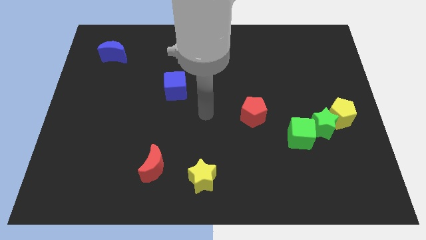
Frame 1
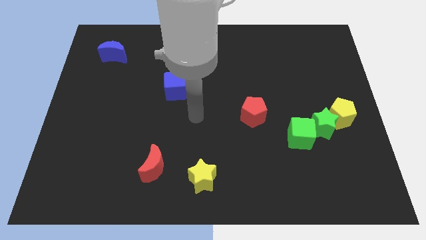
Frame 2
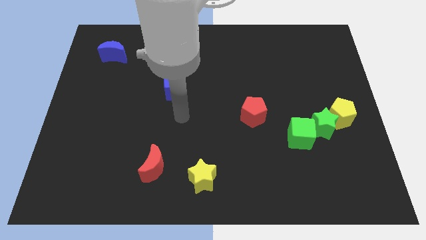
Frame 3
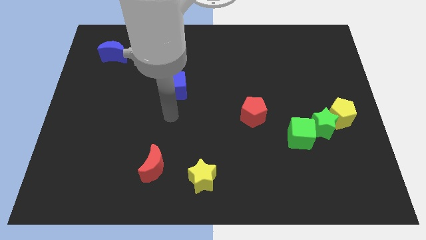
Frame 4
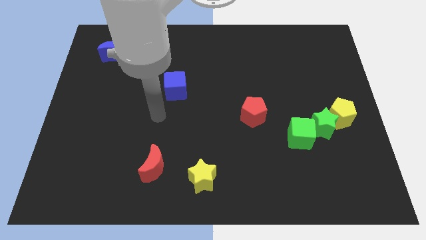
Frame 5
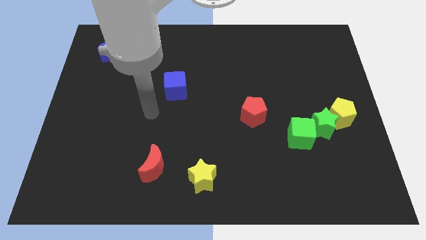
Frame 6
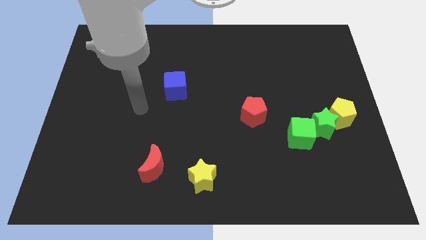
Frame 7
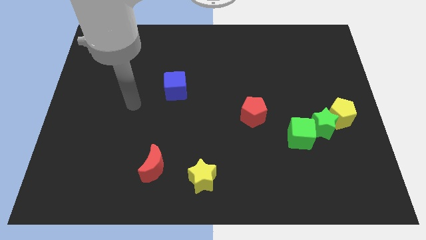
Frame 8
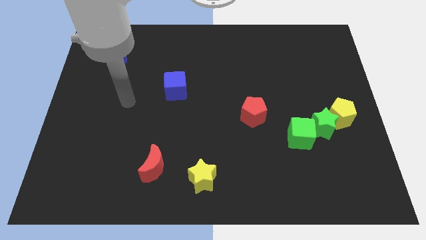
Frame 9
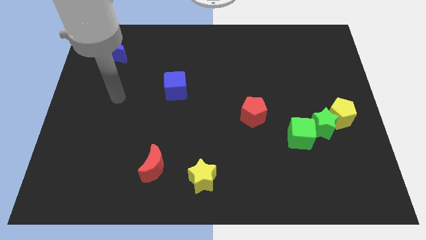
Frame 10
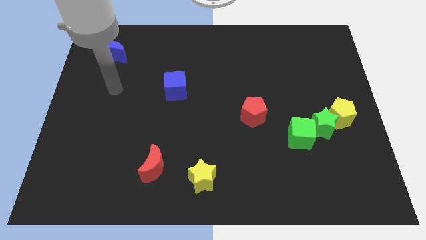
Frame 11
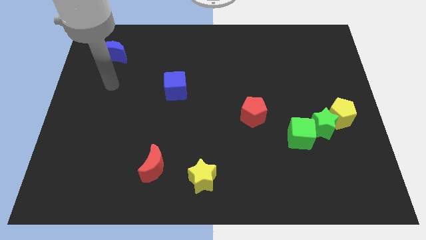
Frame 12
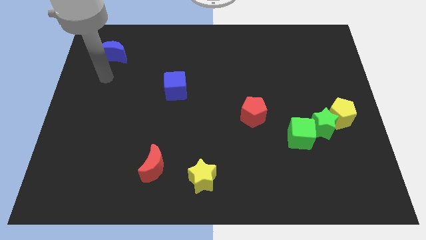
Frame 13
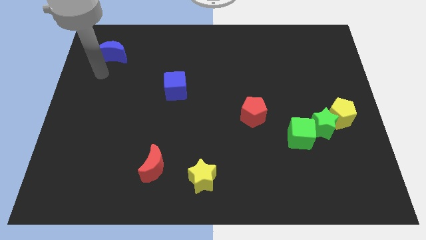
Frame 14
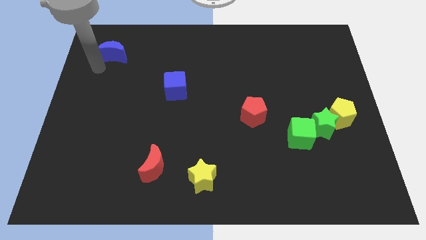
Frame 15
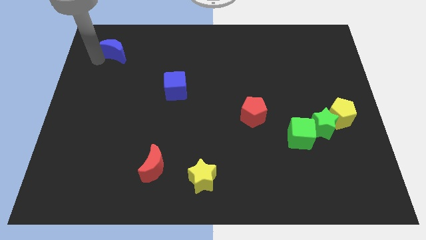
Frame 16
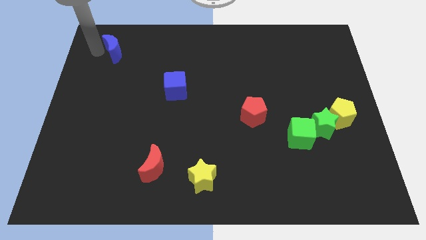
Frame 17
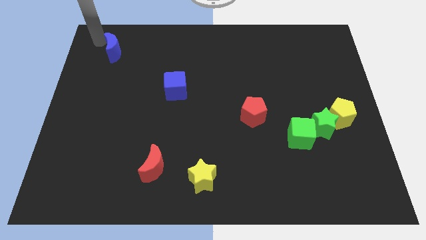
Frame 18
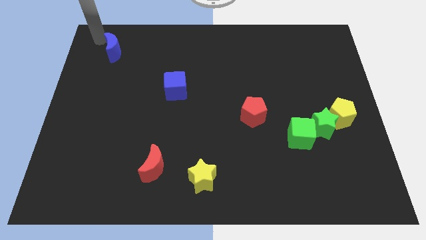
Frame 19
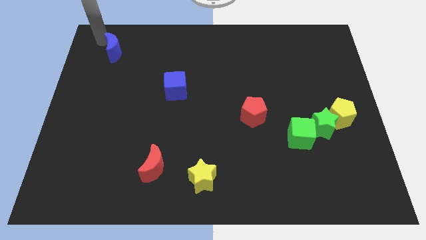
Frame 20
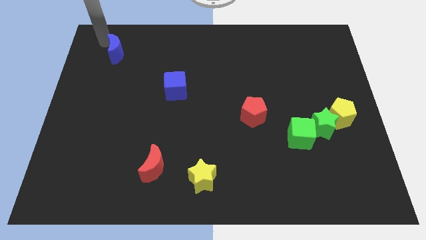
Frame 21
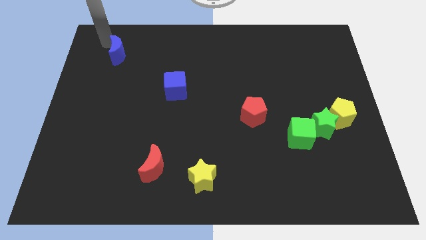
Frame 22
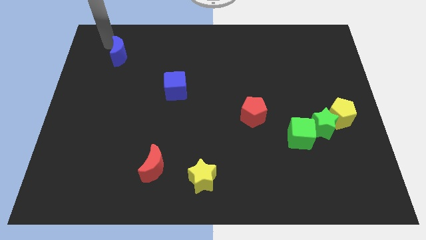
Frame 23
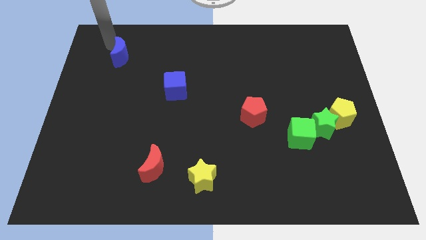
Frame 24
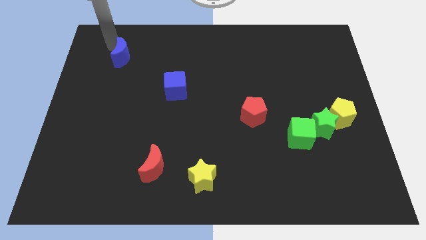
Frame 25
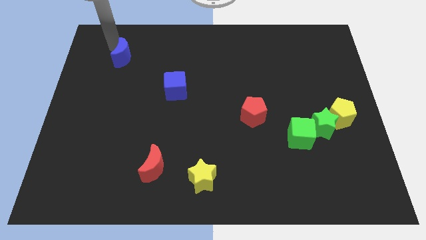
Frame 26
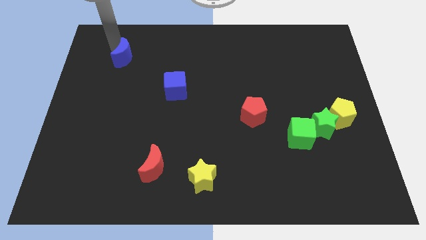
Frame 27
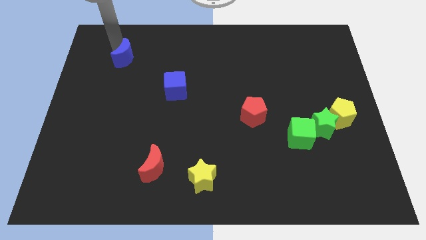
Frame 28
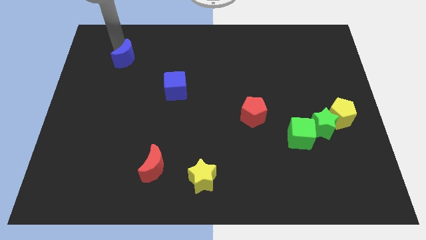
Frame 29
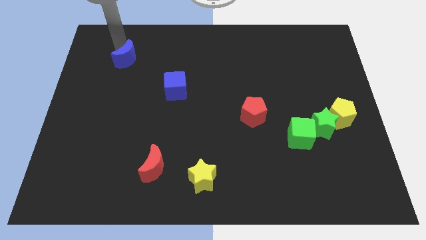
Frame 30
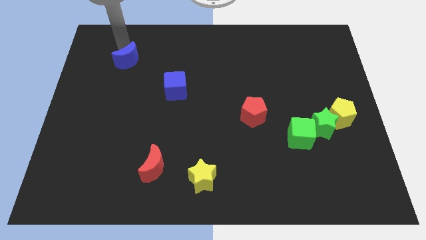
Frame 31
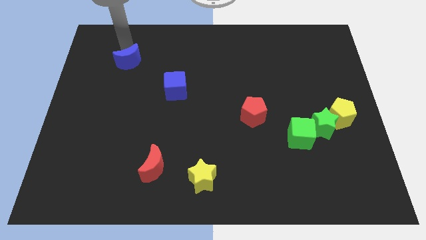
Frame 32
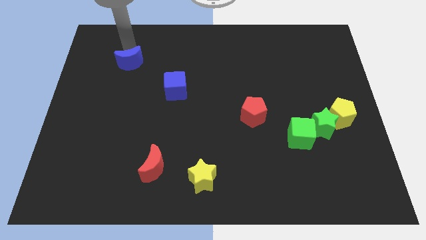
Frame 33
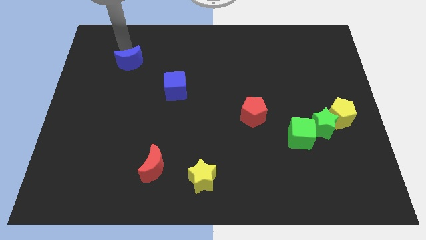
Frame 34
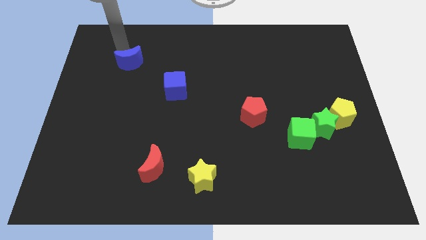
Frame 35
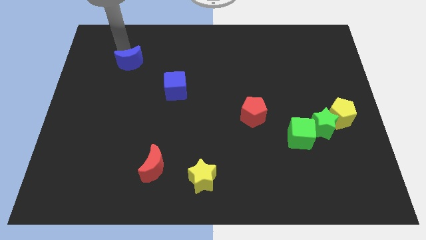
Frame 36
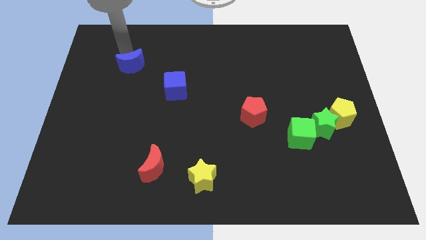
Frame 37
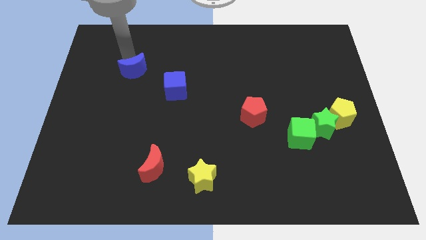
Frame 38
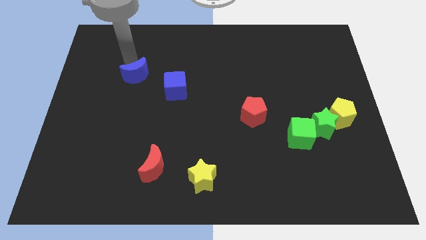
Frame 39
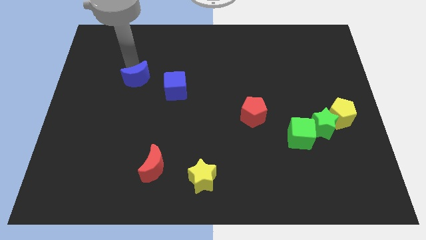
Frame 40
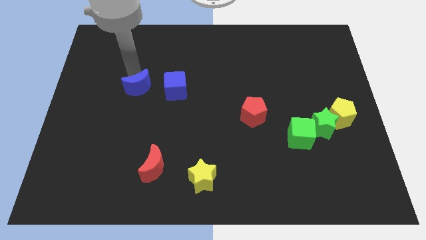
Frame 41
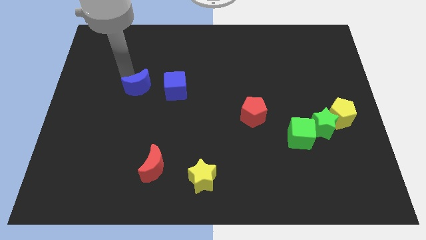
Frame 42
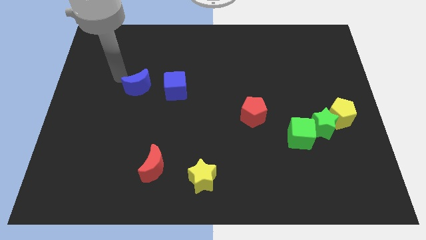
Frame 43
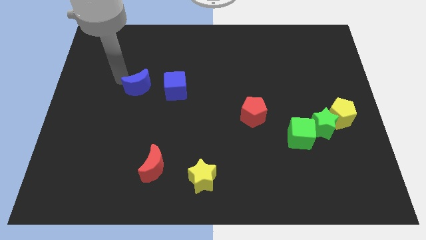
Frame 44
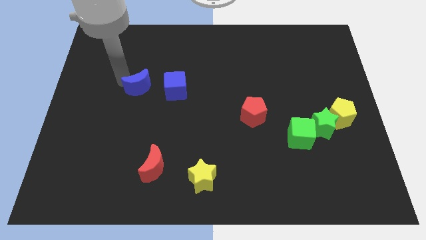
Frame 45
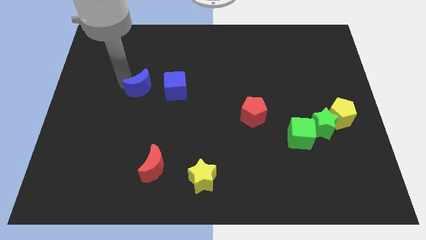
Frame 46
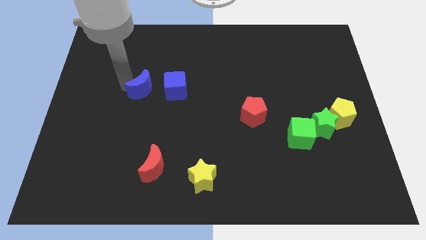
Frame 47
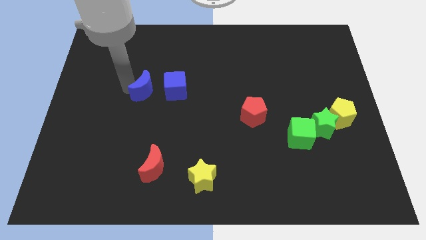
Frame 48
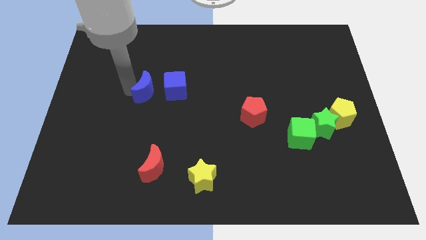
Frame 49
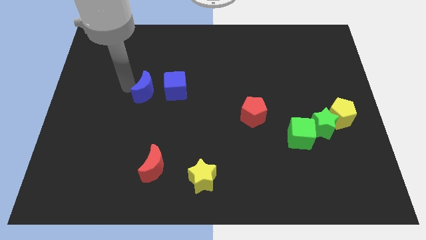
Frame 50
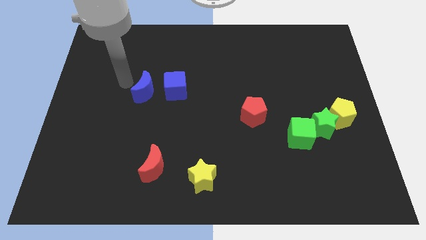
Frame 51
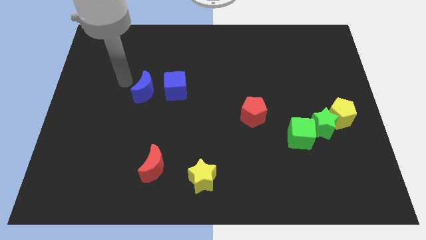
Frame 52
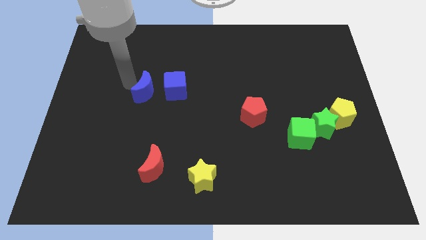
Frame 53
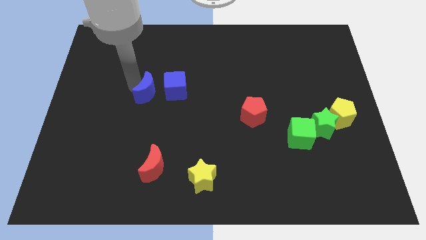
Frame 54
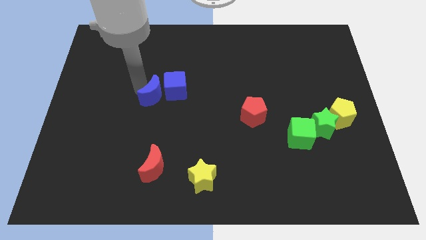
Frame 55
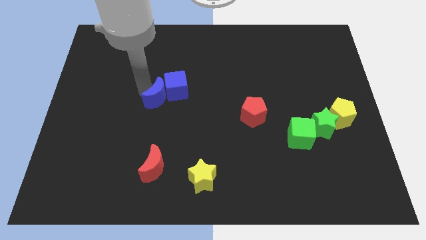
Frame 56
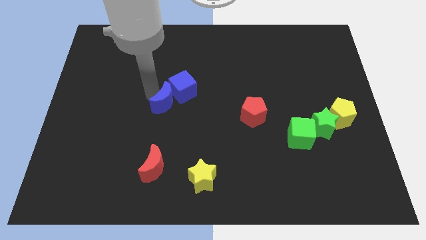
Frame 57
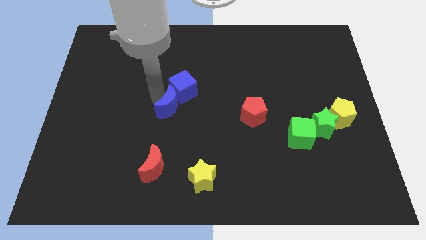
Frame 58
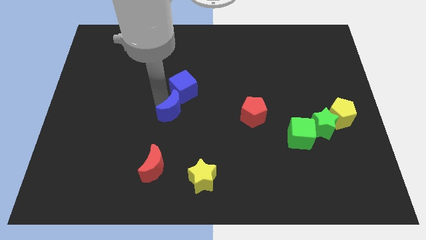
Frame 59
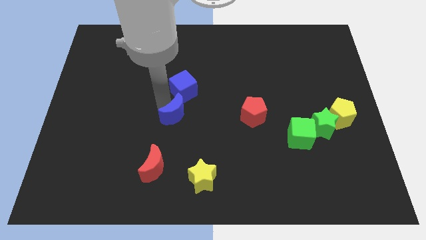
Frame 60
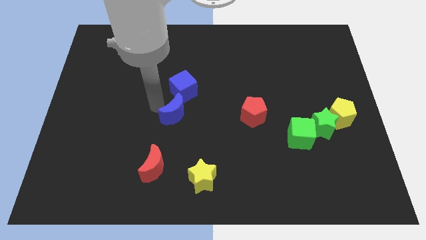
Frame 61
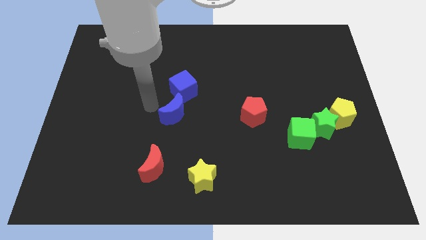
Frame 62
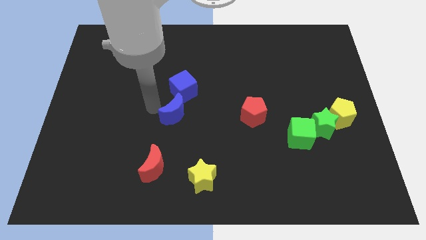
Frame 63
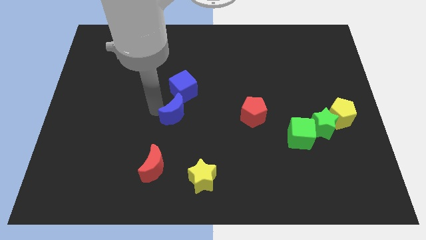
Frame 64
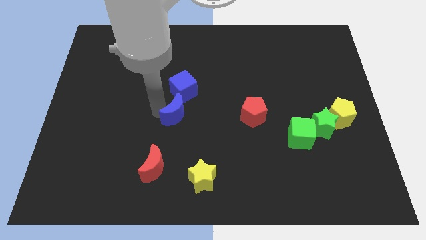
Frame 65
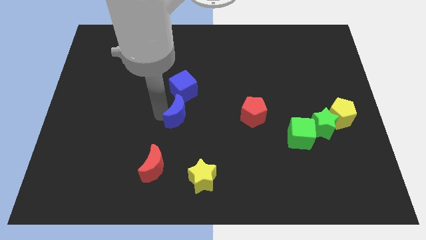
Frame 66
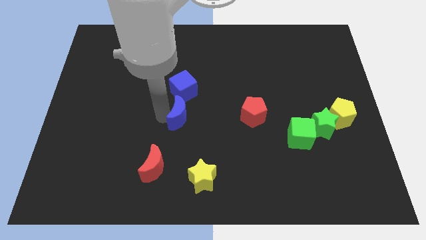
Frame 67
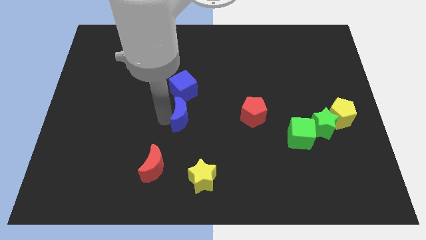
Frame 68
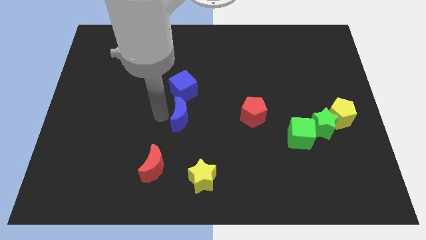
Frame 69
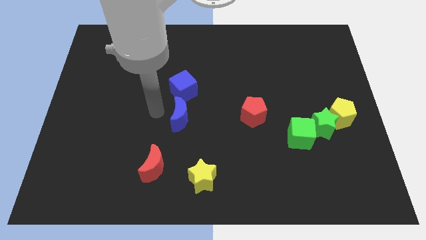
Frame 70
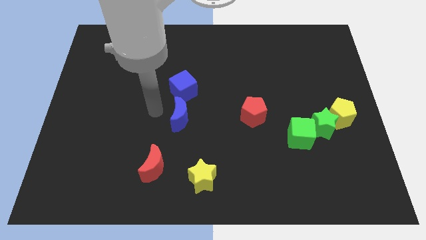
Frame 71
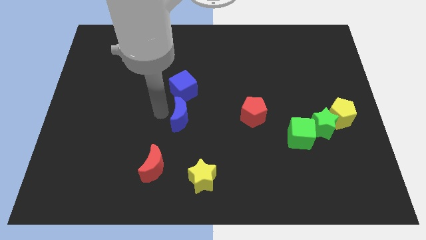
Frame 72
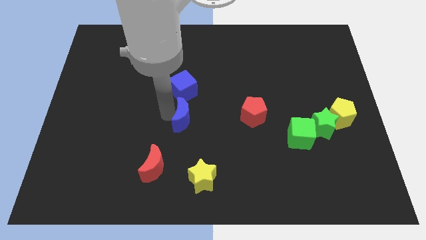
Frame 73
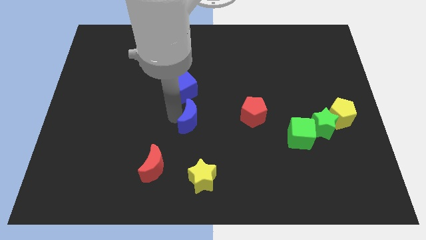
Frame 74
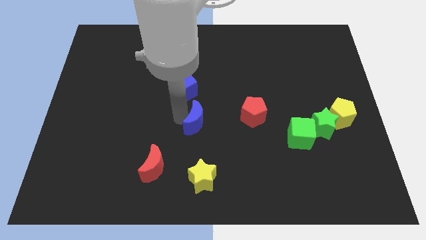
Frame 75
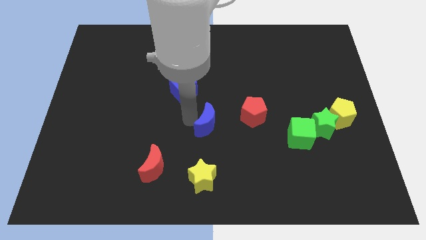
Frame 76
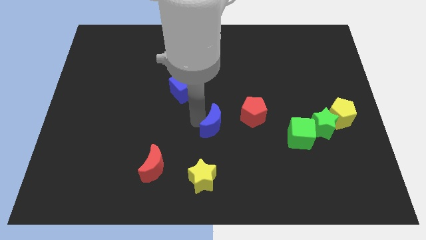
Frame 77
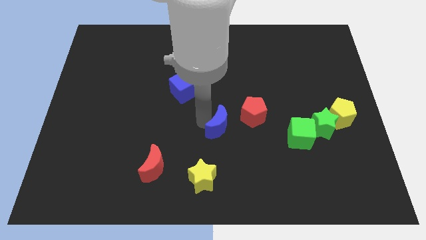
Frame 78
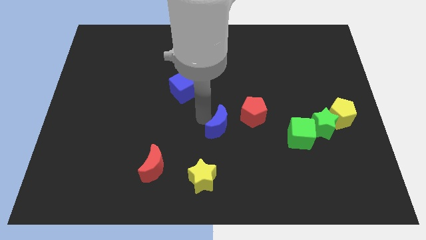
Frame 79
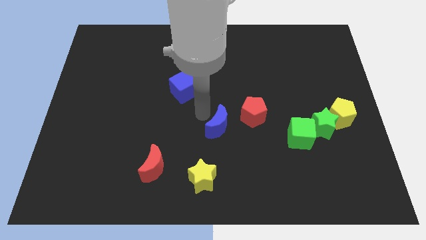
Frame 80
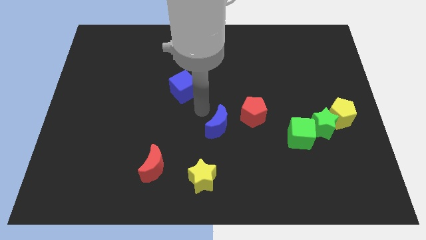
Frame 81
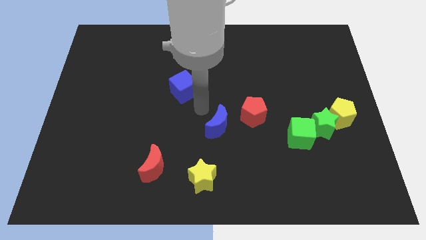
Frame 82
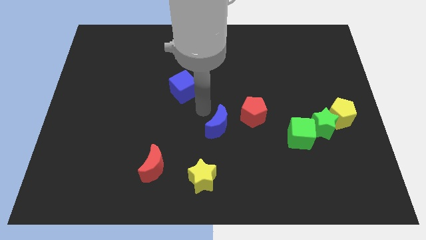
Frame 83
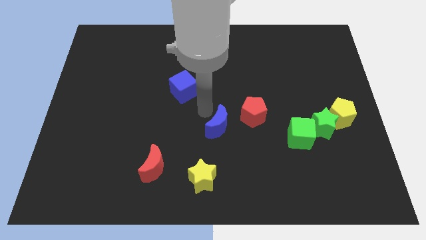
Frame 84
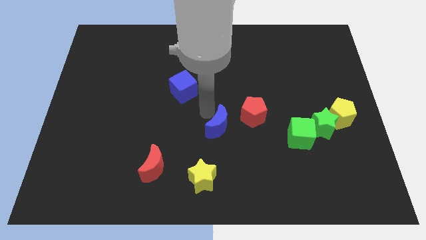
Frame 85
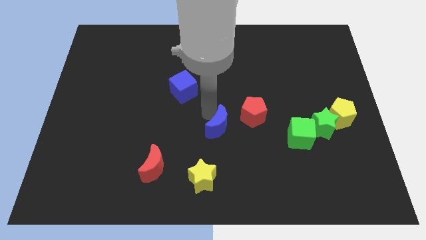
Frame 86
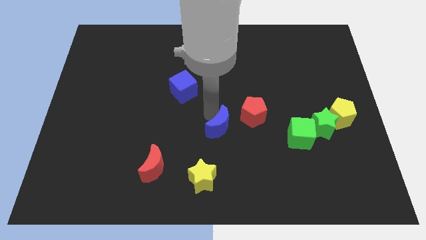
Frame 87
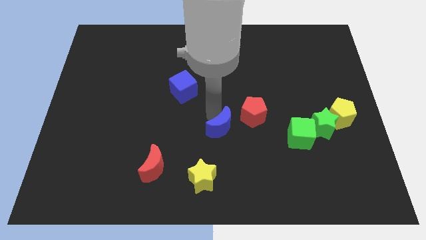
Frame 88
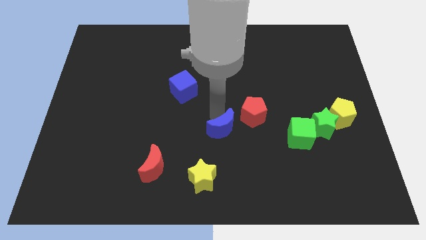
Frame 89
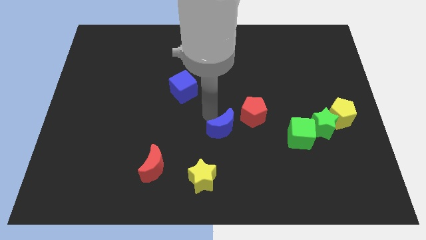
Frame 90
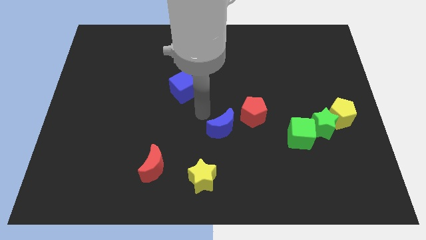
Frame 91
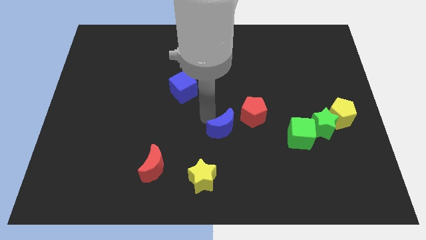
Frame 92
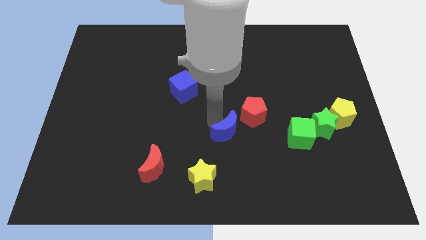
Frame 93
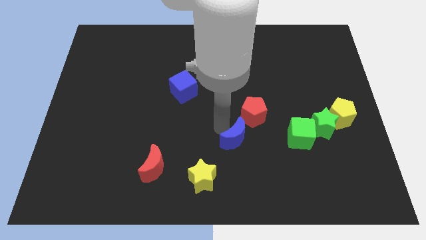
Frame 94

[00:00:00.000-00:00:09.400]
slide the blue moon to the bottom side of the red pentagon
